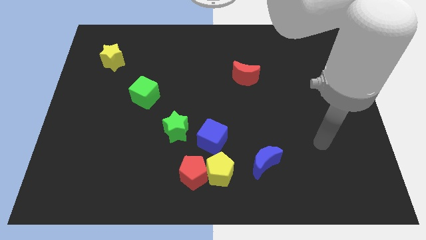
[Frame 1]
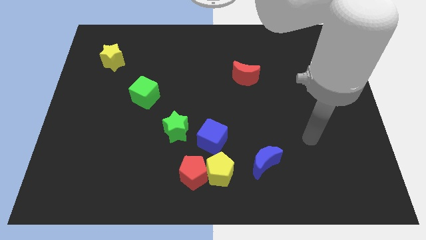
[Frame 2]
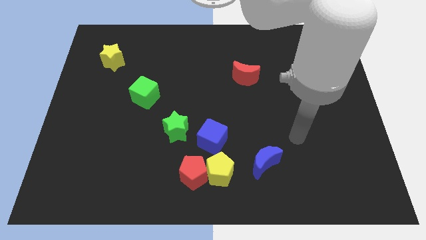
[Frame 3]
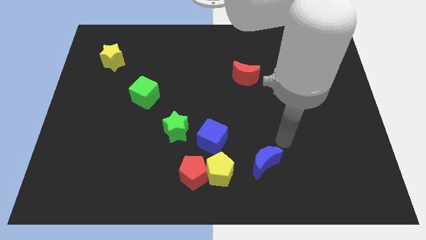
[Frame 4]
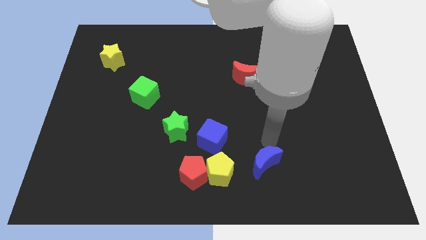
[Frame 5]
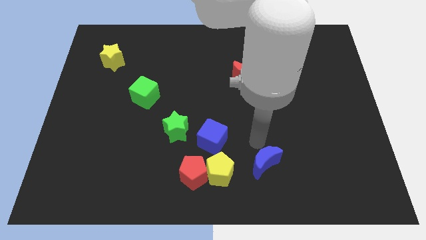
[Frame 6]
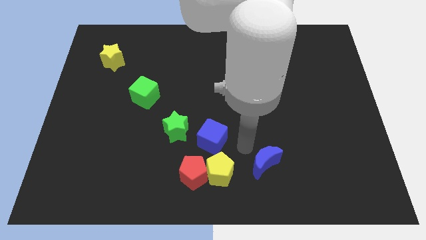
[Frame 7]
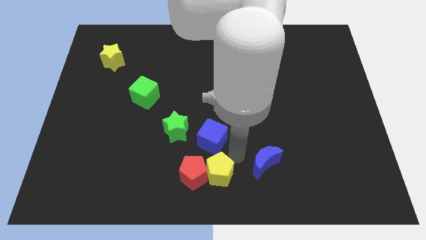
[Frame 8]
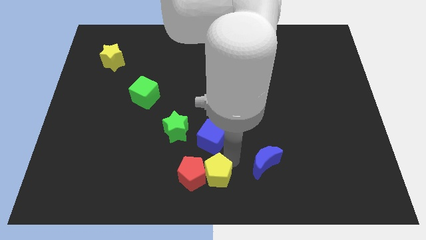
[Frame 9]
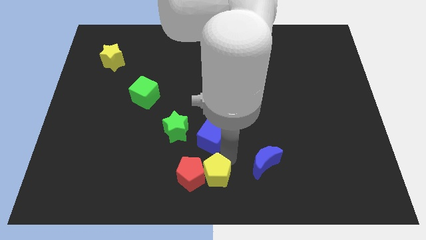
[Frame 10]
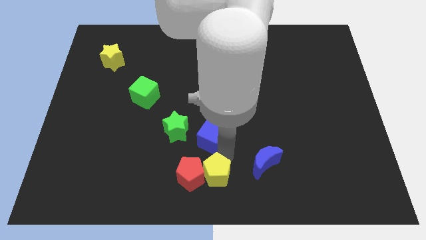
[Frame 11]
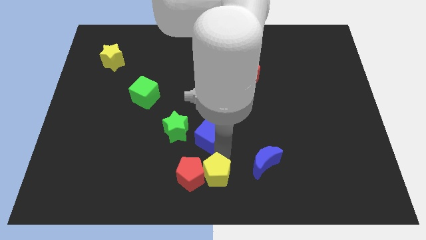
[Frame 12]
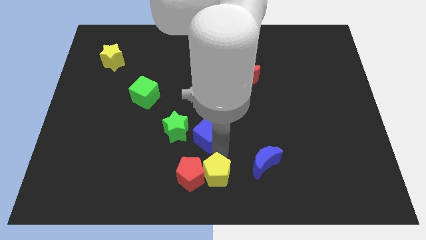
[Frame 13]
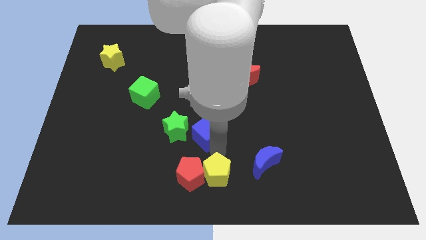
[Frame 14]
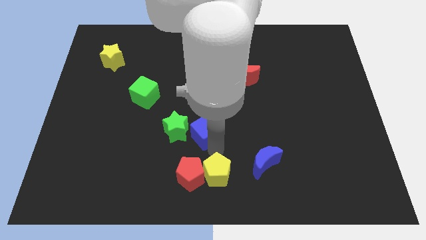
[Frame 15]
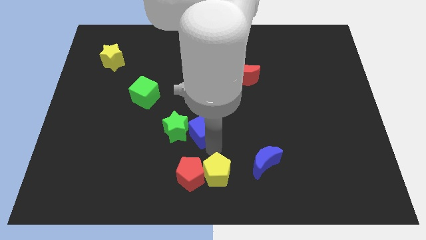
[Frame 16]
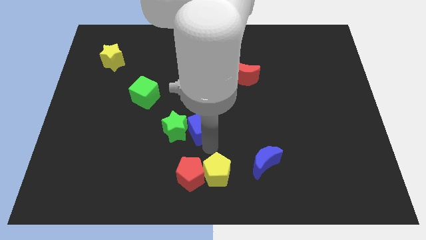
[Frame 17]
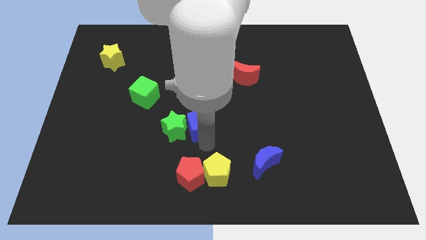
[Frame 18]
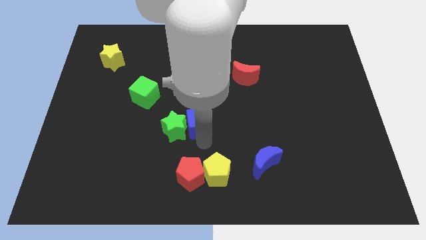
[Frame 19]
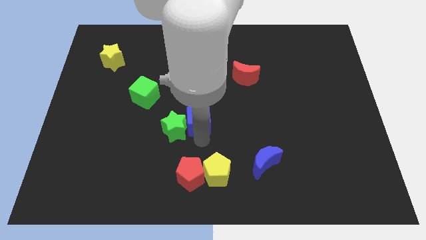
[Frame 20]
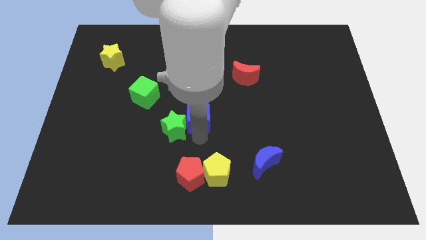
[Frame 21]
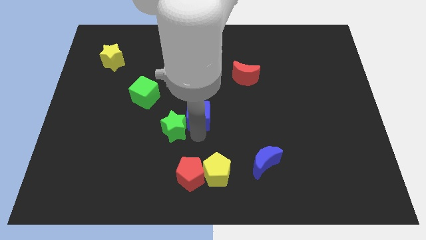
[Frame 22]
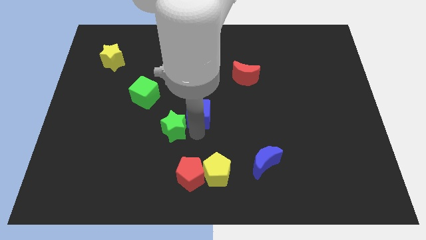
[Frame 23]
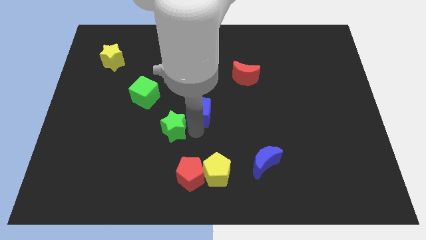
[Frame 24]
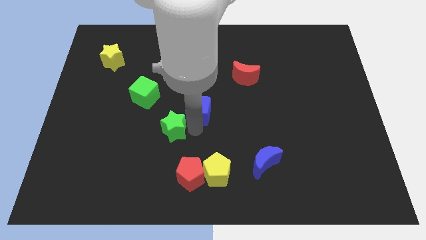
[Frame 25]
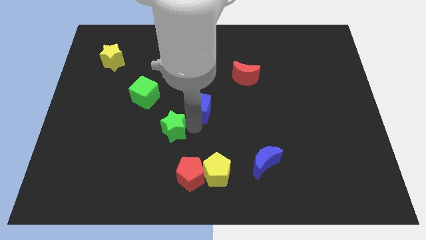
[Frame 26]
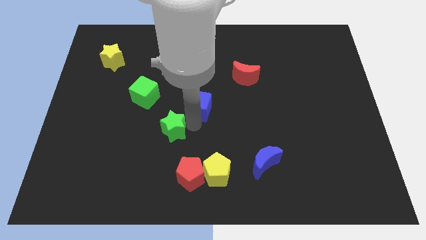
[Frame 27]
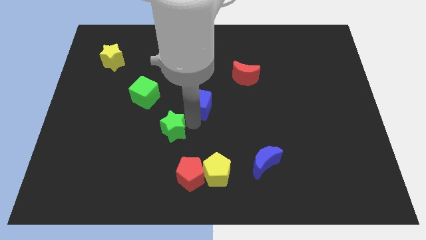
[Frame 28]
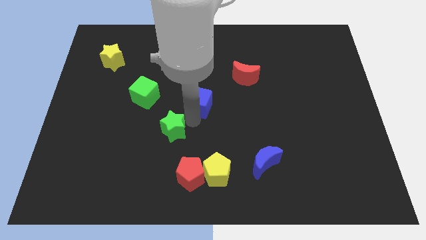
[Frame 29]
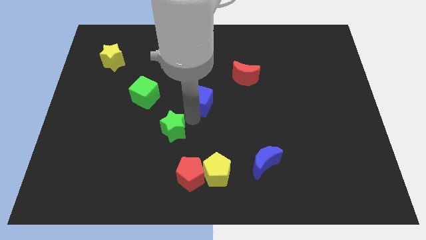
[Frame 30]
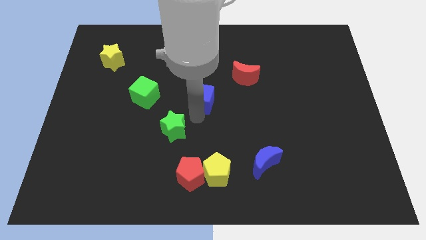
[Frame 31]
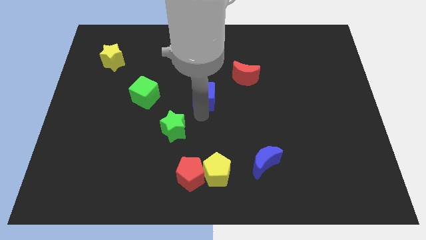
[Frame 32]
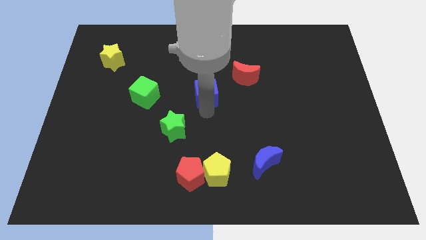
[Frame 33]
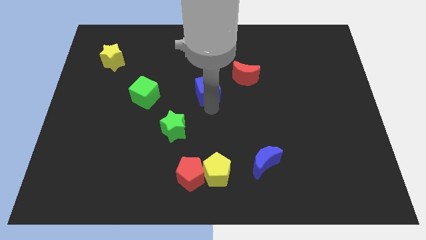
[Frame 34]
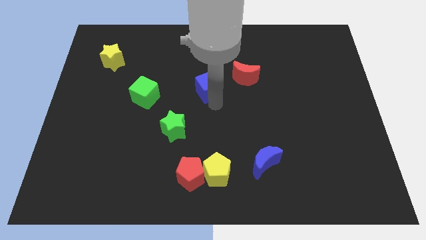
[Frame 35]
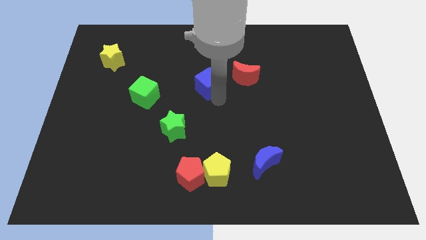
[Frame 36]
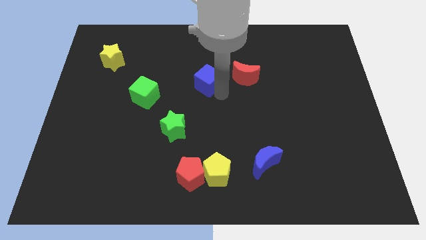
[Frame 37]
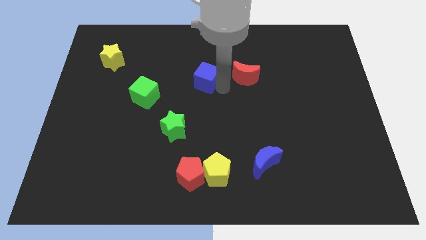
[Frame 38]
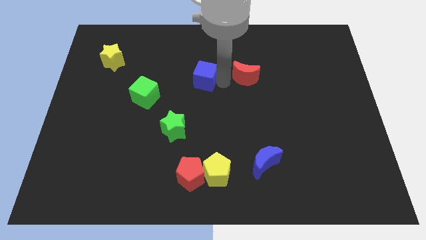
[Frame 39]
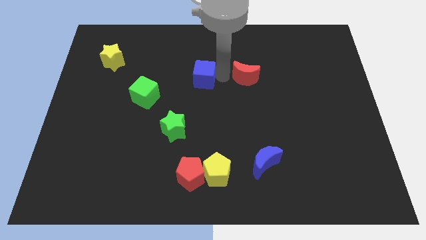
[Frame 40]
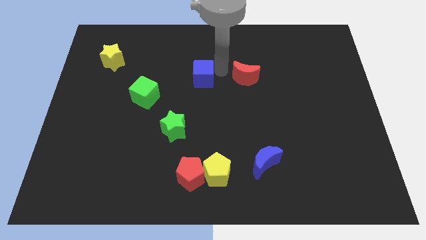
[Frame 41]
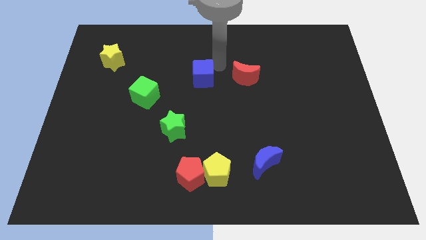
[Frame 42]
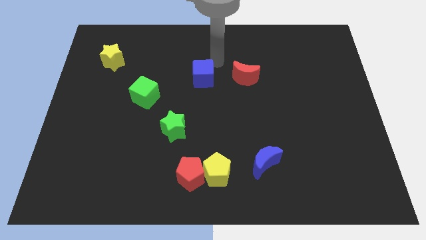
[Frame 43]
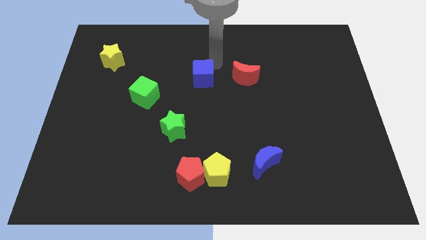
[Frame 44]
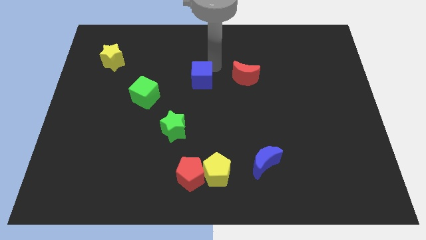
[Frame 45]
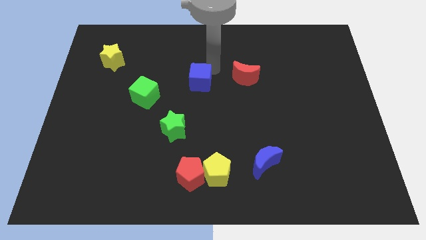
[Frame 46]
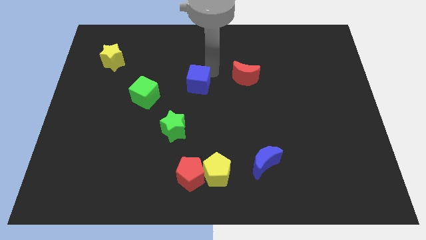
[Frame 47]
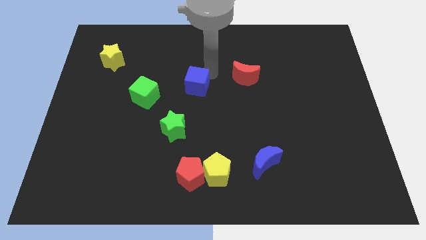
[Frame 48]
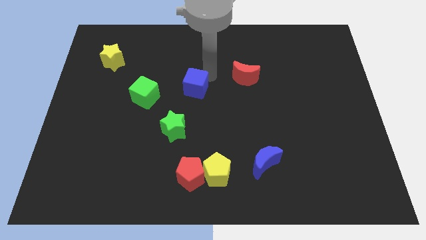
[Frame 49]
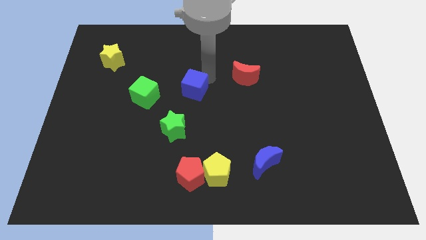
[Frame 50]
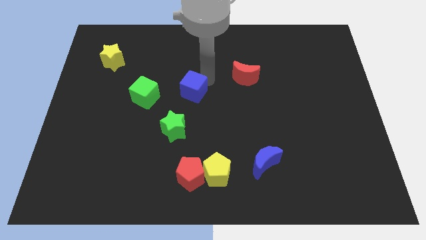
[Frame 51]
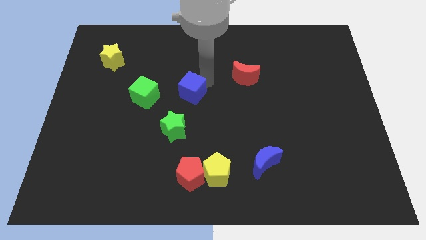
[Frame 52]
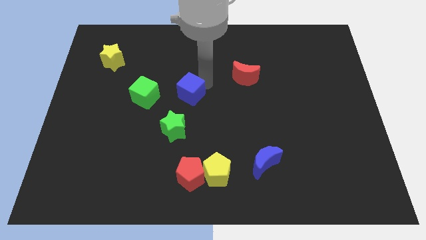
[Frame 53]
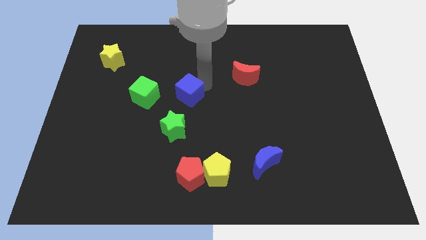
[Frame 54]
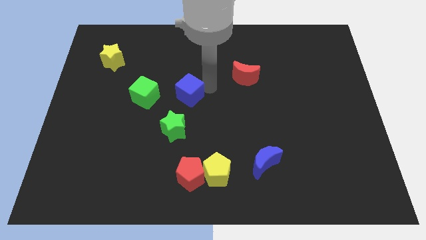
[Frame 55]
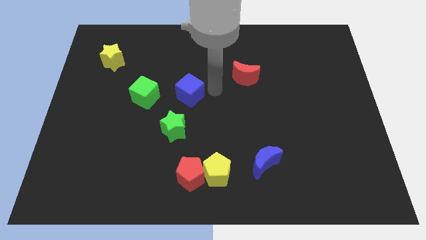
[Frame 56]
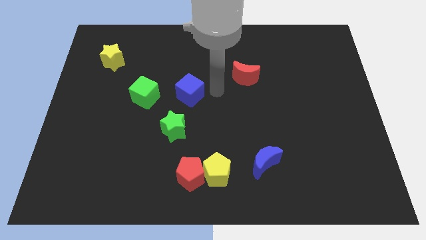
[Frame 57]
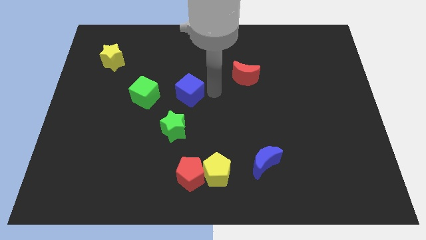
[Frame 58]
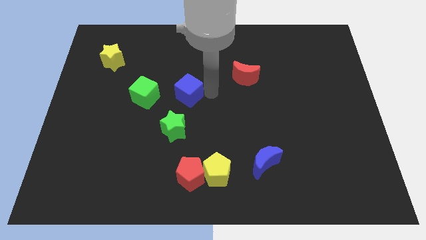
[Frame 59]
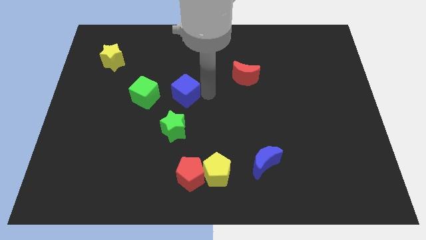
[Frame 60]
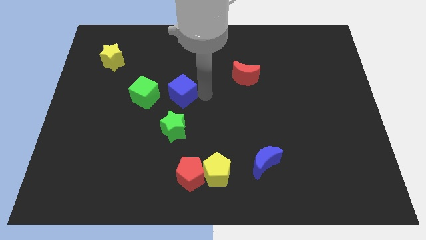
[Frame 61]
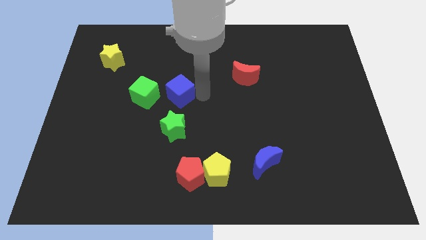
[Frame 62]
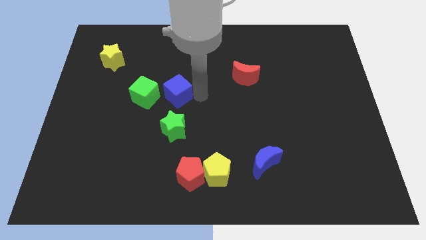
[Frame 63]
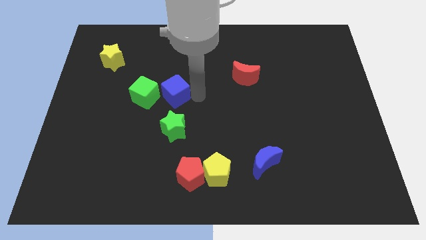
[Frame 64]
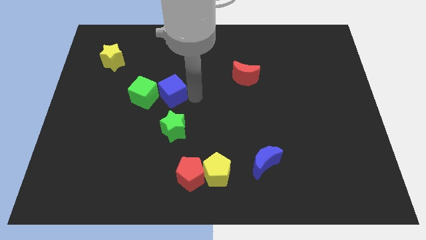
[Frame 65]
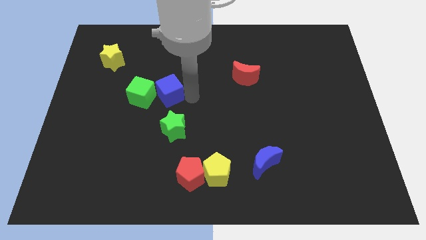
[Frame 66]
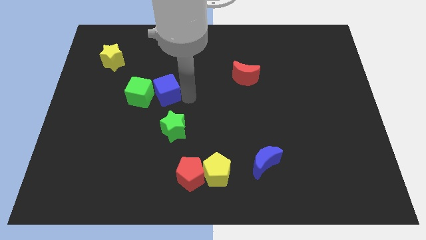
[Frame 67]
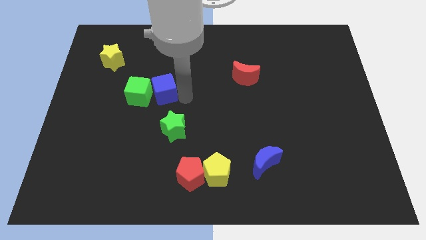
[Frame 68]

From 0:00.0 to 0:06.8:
put the blue cube towards the green cube

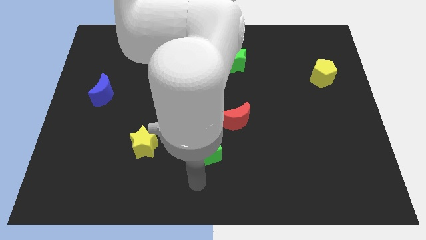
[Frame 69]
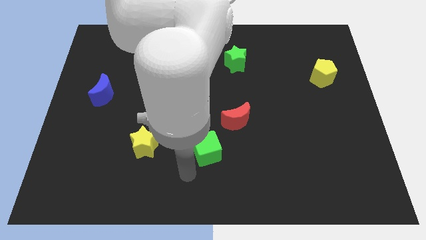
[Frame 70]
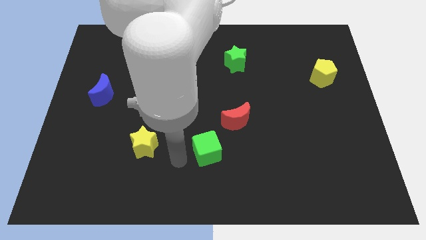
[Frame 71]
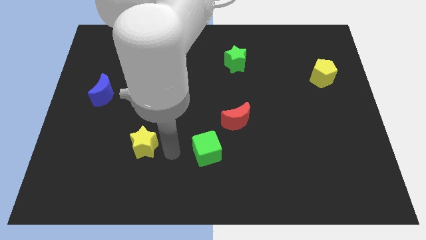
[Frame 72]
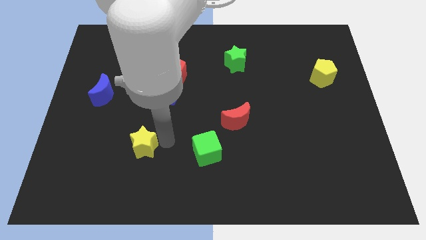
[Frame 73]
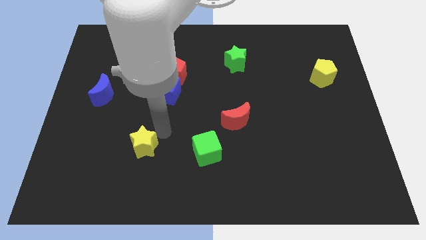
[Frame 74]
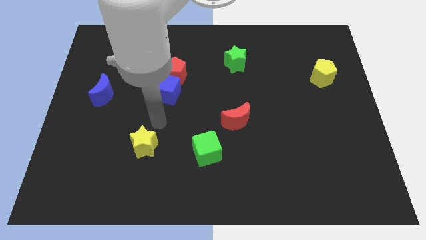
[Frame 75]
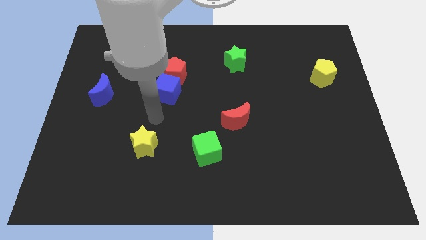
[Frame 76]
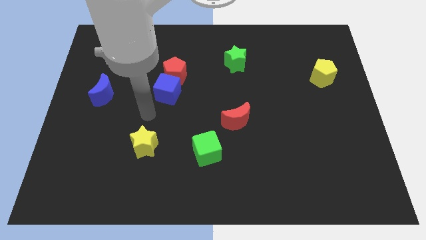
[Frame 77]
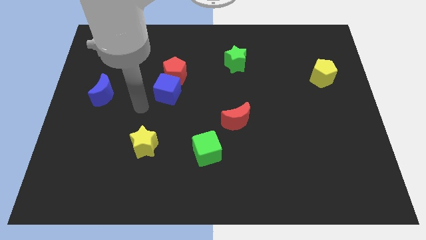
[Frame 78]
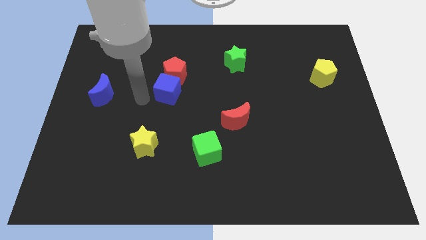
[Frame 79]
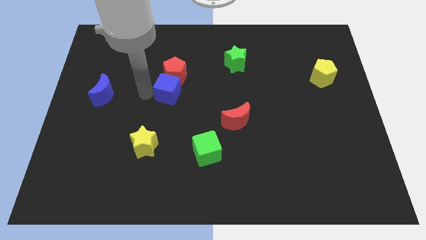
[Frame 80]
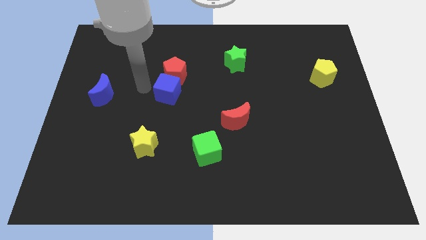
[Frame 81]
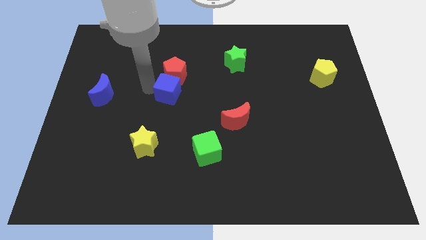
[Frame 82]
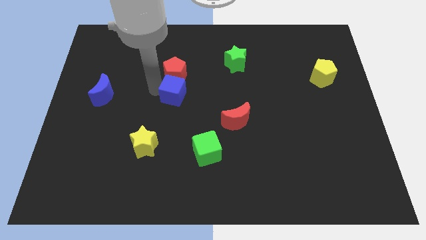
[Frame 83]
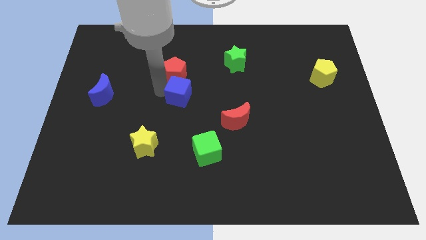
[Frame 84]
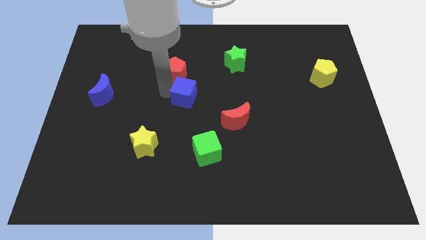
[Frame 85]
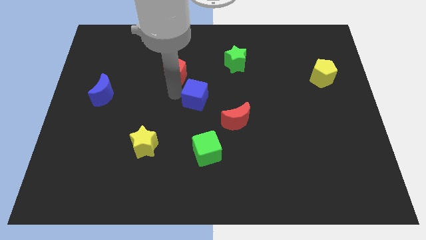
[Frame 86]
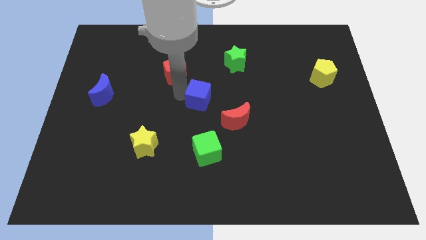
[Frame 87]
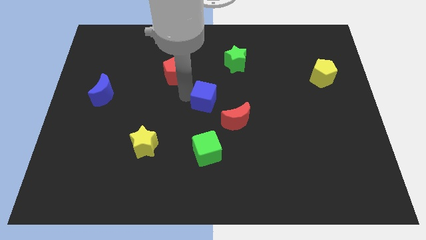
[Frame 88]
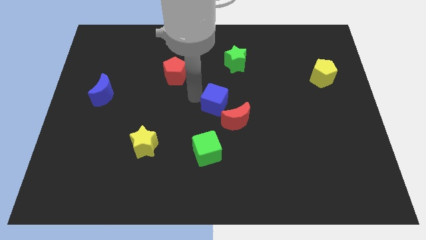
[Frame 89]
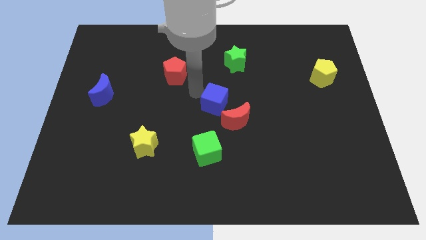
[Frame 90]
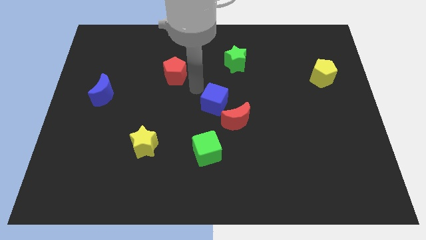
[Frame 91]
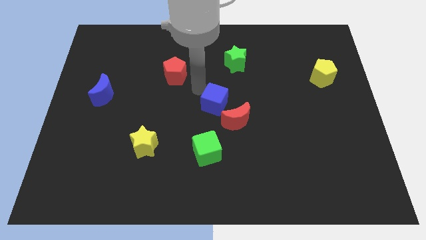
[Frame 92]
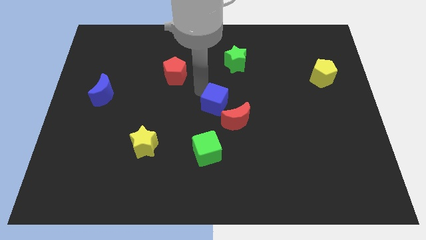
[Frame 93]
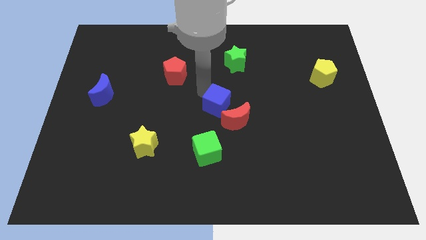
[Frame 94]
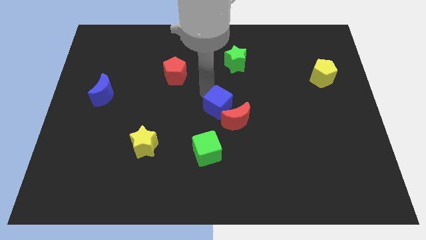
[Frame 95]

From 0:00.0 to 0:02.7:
push the blue cube close to the red moon
